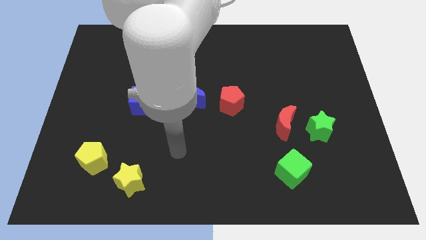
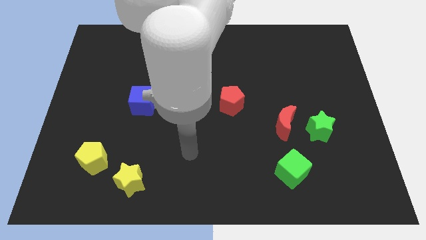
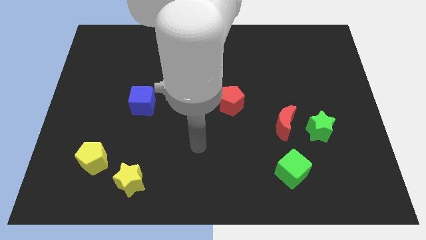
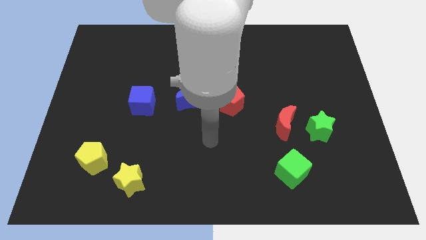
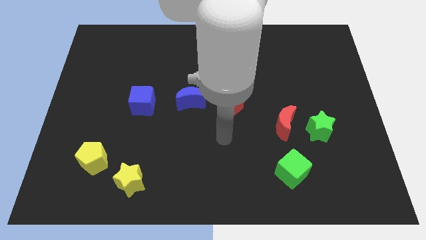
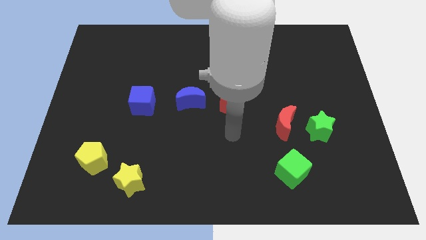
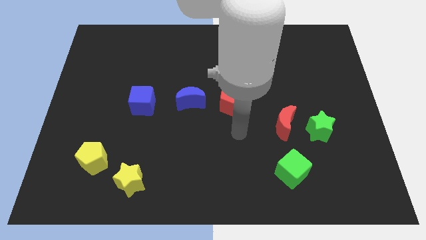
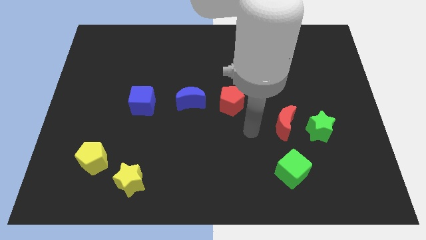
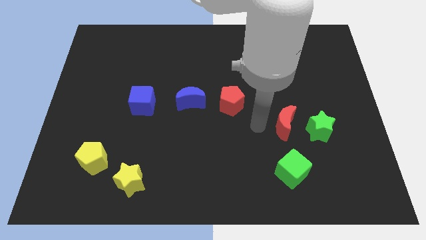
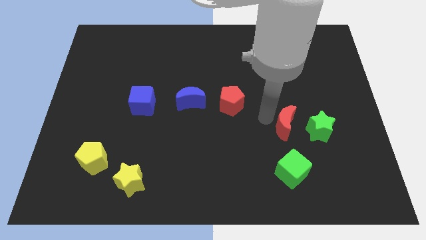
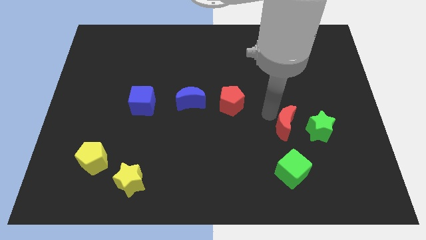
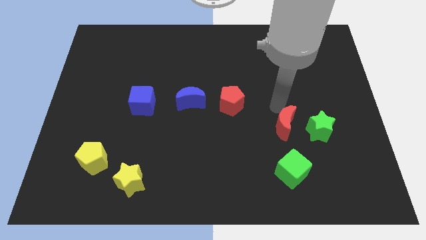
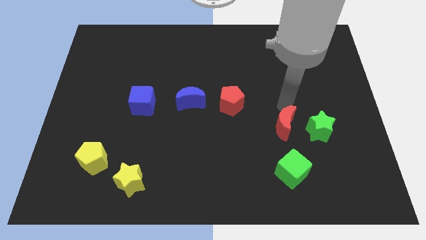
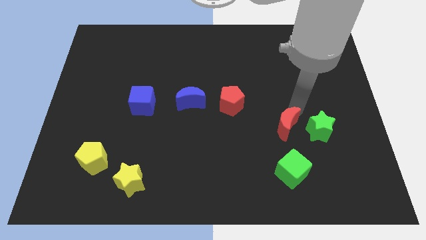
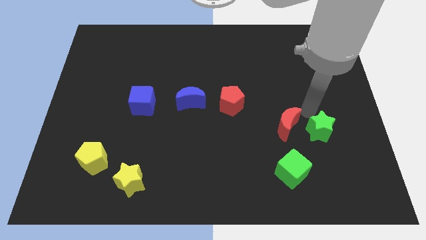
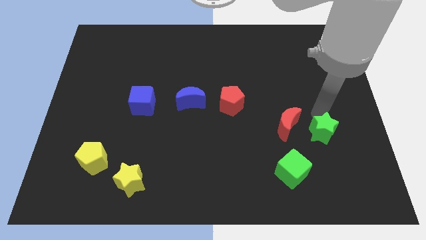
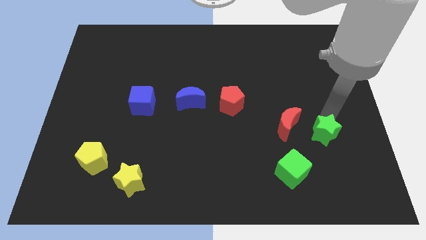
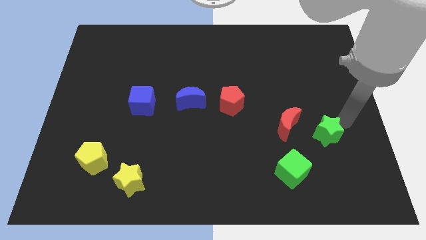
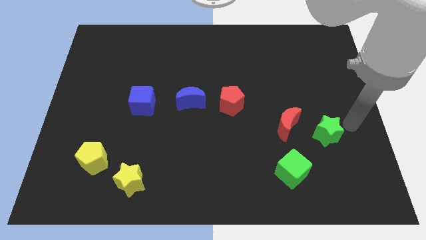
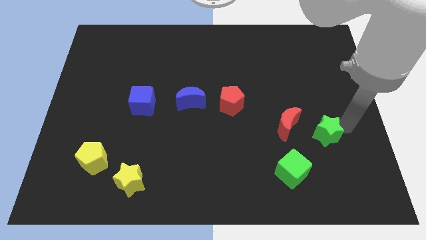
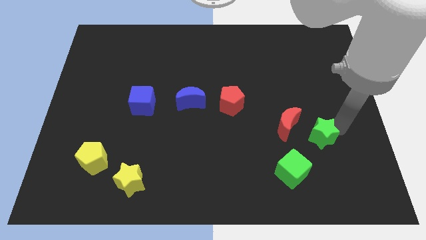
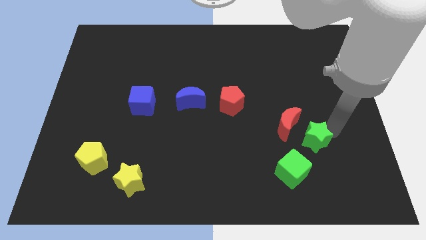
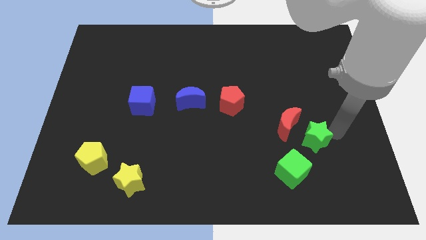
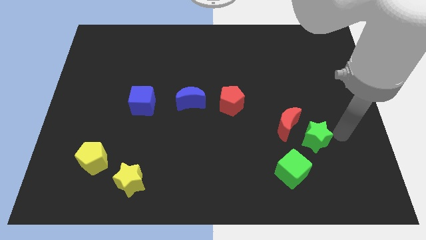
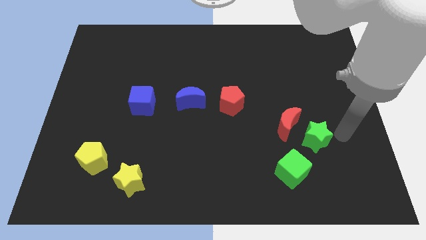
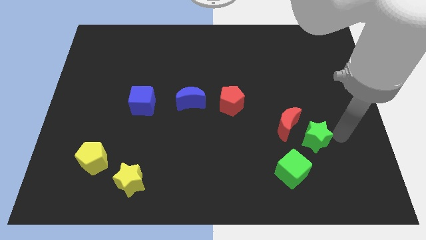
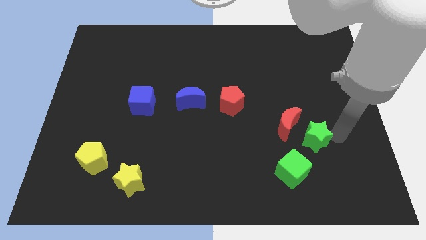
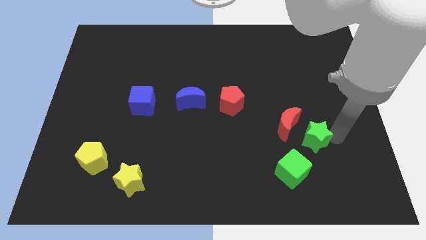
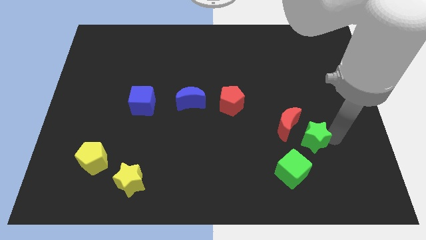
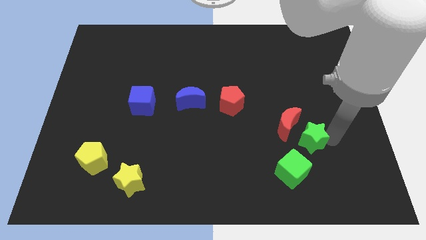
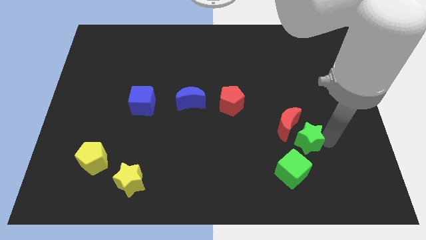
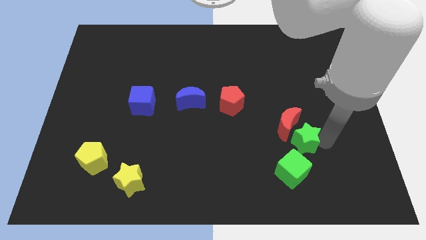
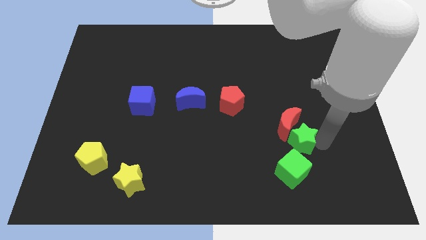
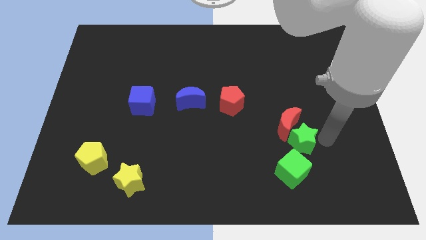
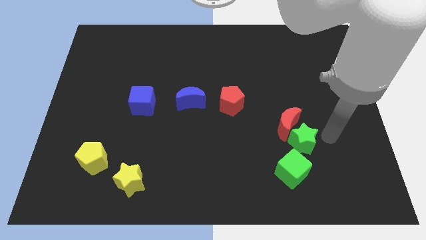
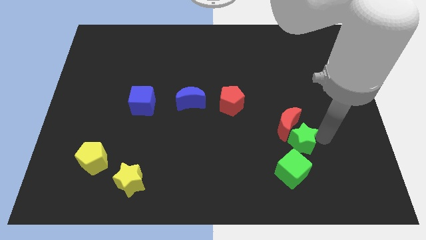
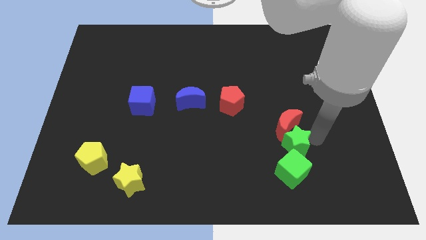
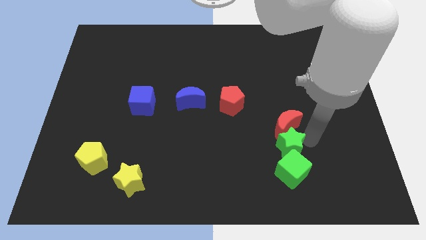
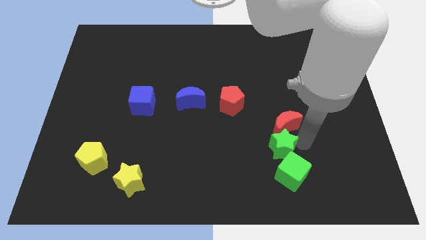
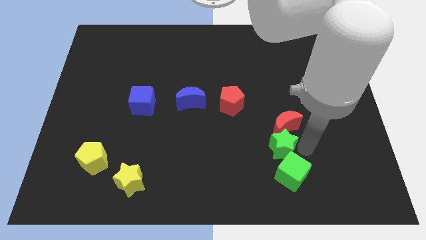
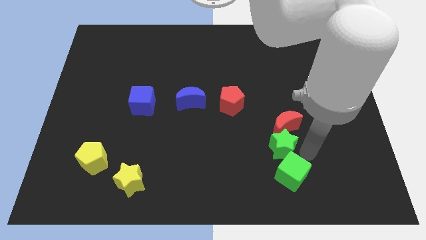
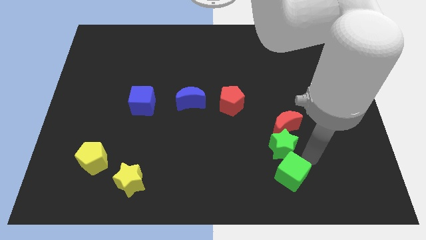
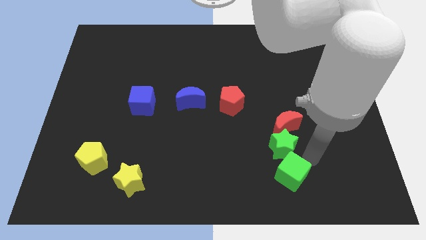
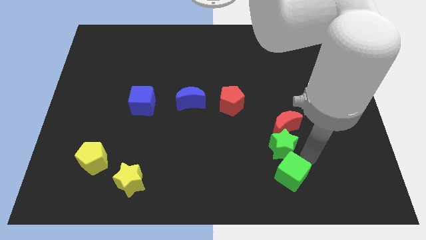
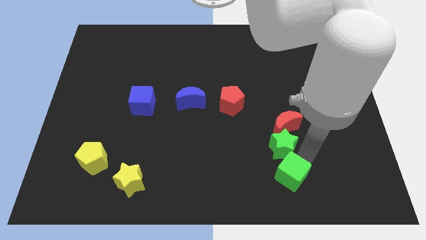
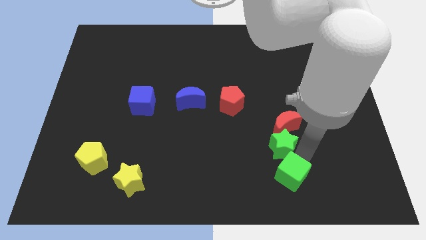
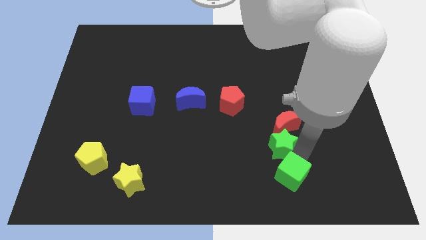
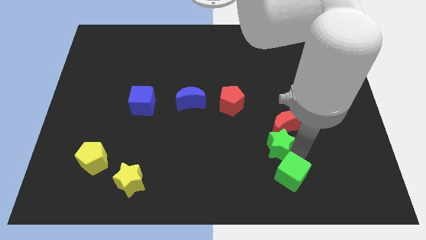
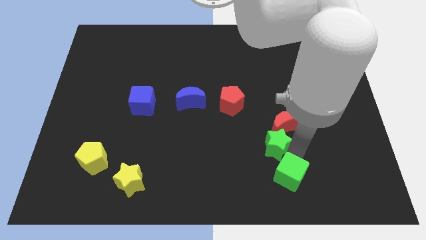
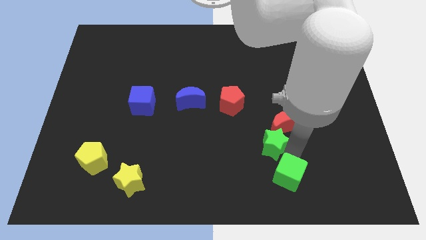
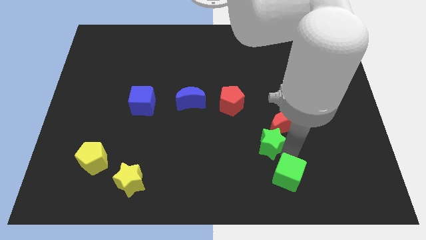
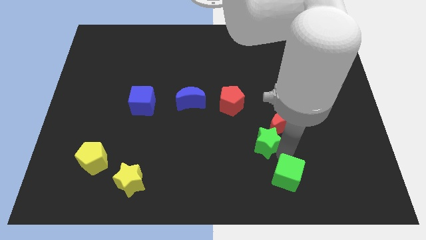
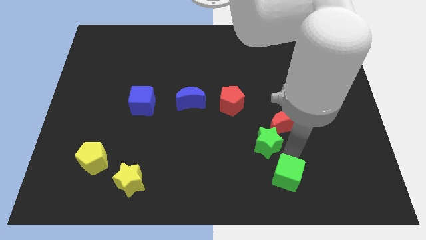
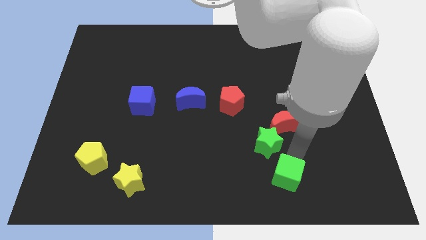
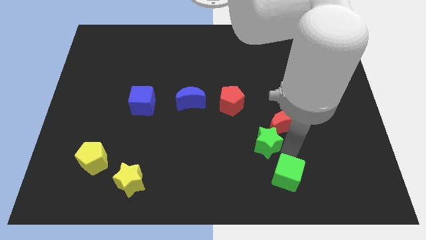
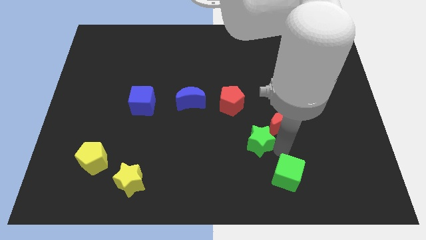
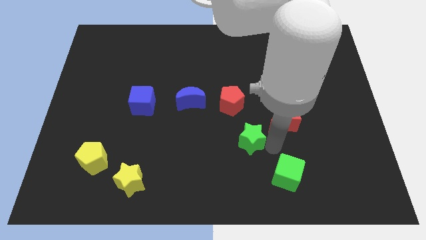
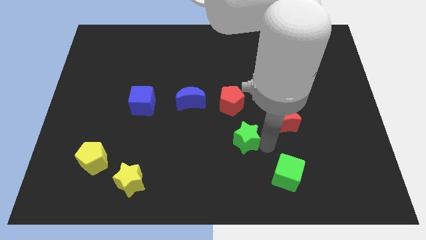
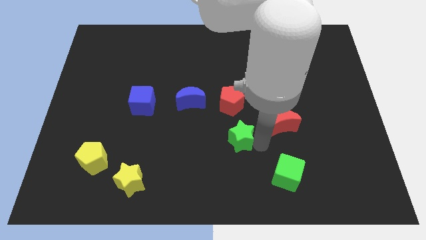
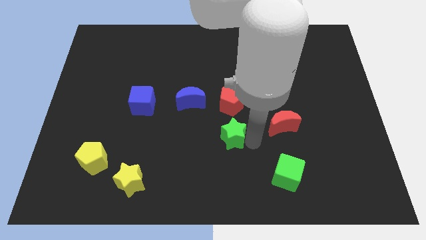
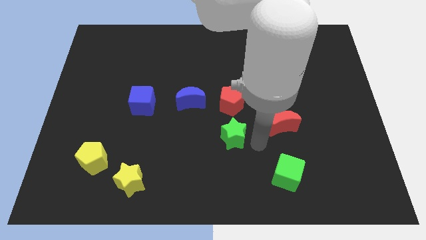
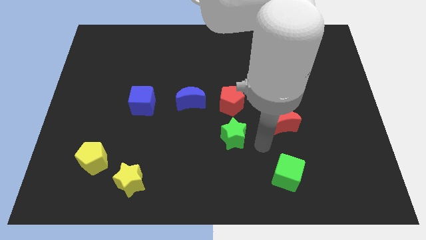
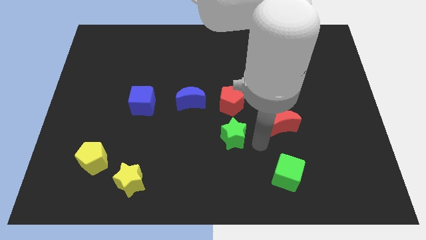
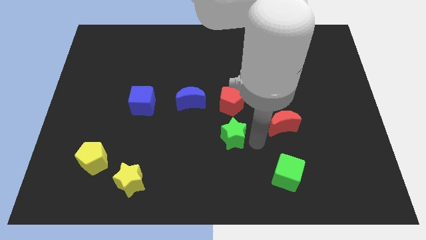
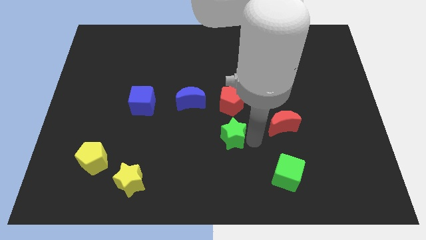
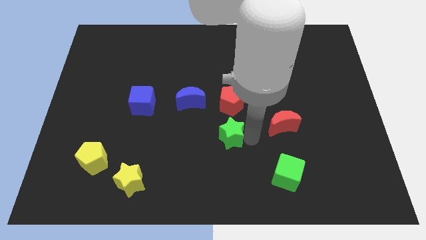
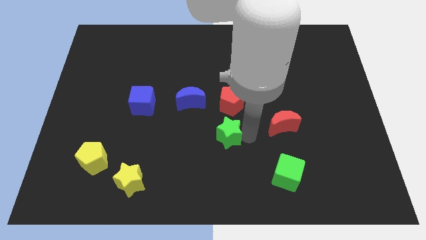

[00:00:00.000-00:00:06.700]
push the green star to the left

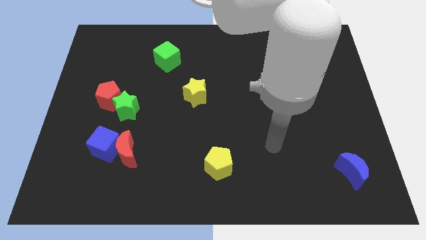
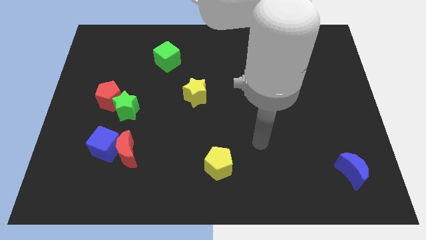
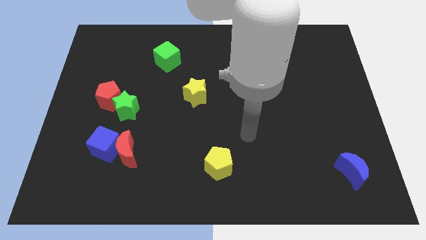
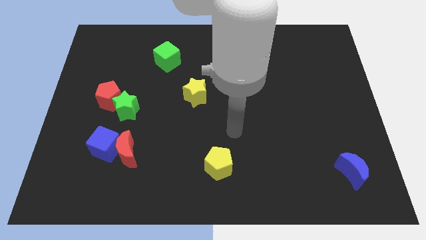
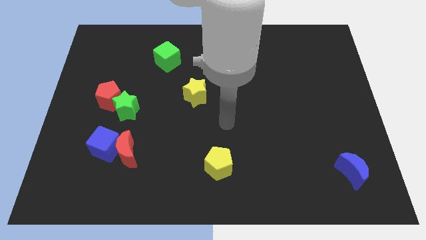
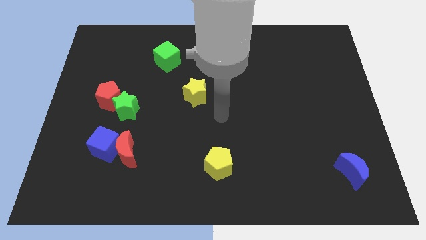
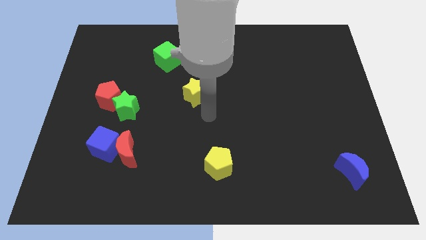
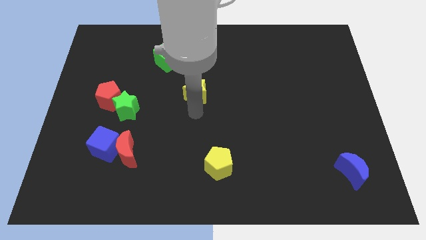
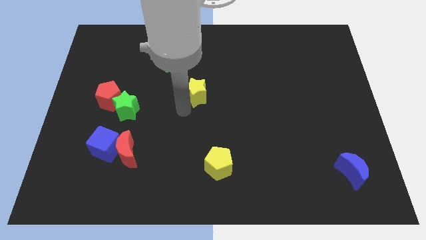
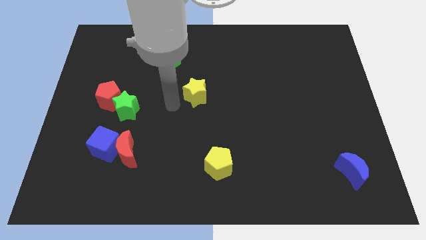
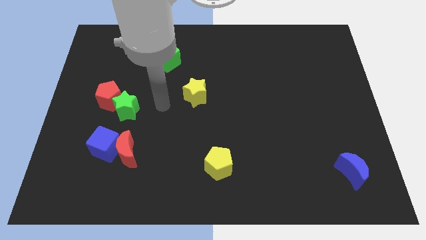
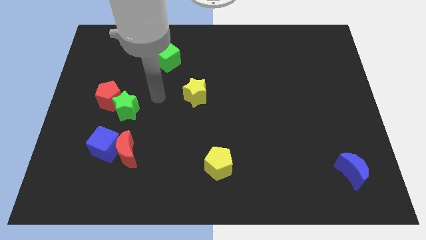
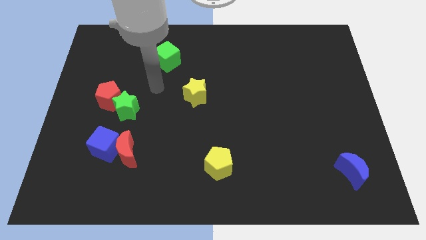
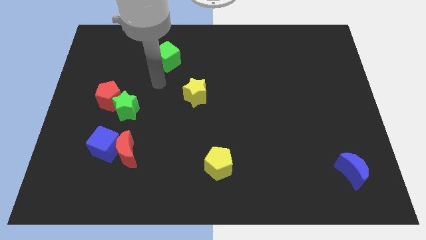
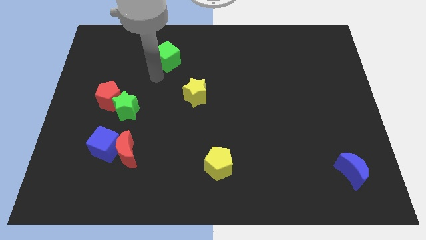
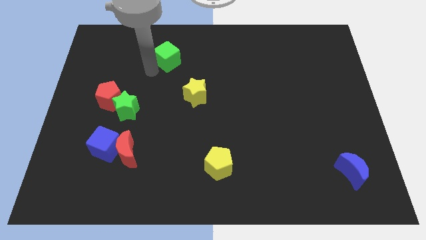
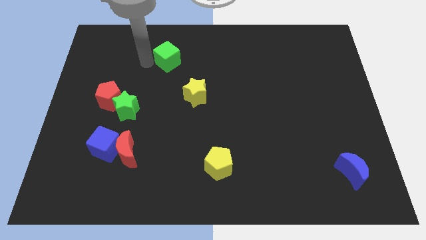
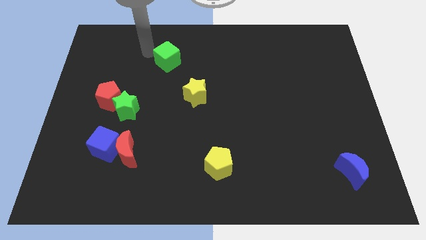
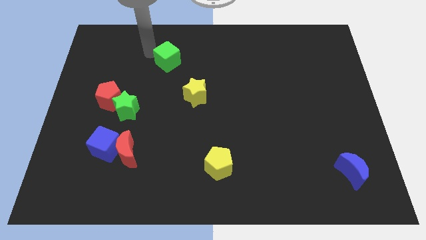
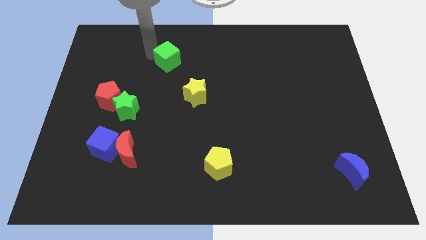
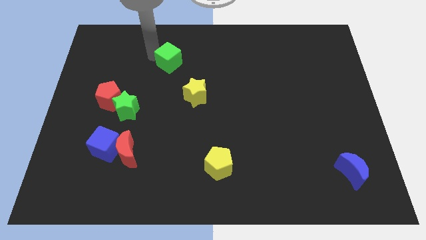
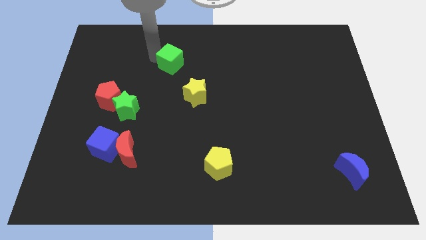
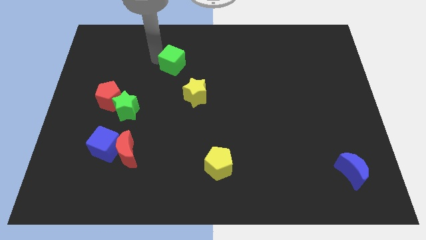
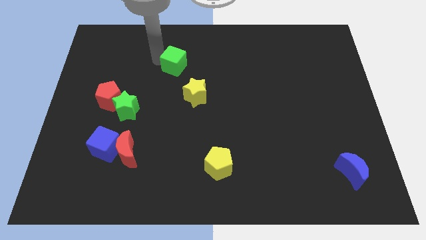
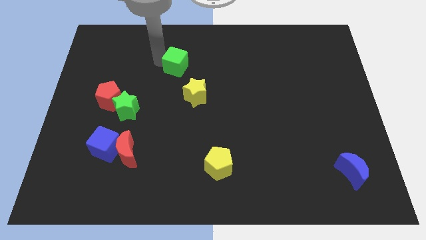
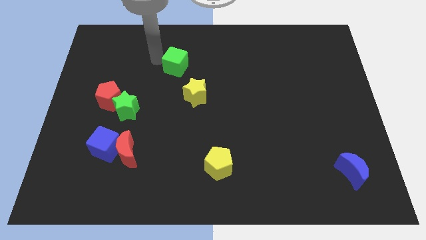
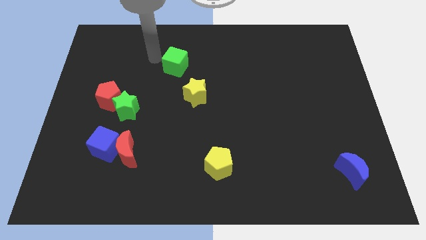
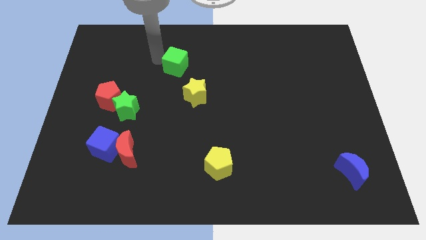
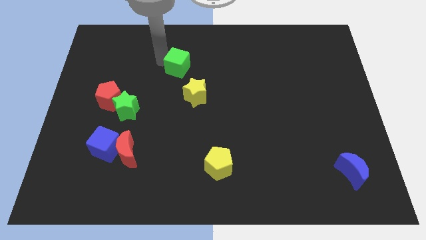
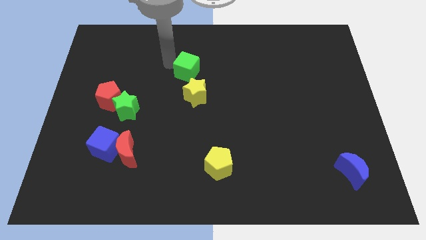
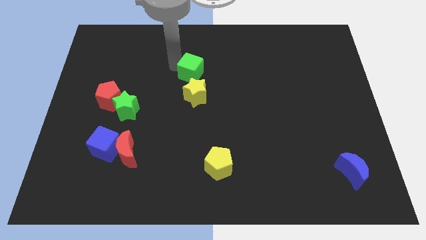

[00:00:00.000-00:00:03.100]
slide the green cube a little down and to the right
